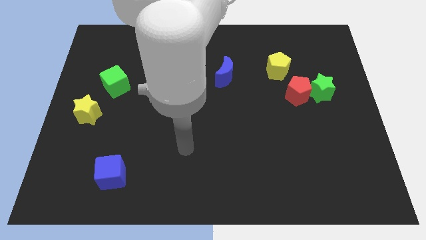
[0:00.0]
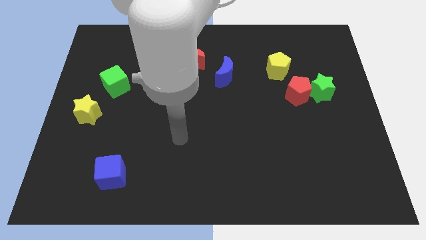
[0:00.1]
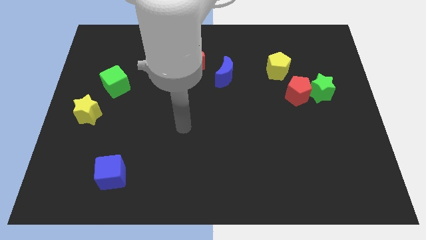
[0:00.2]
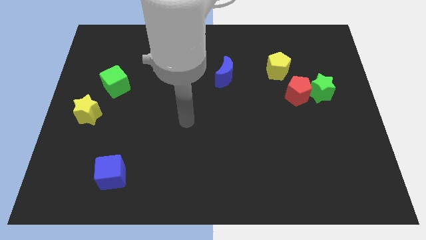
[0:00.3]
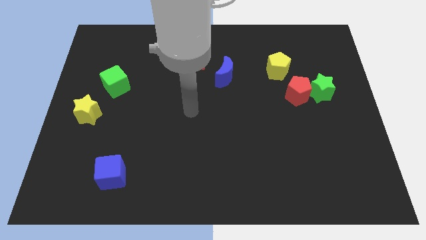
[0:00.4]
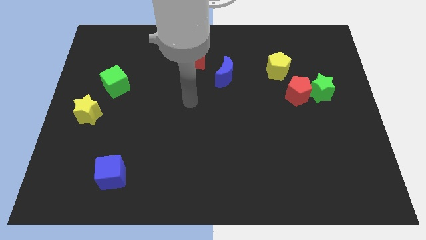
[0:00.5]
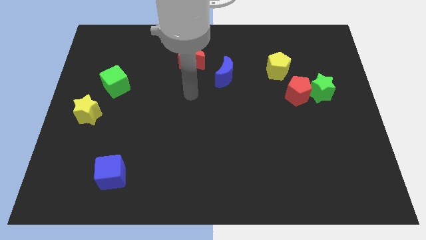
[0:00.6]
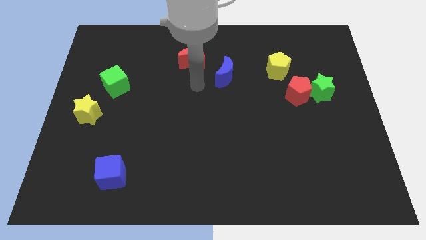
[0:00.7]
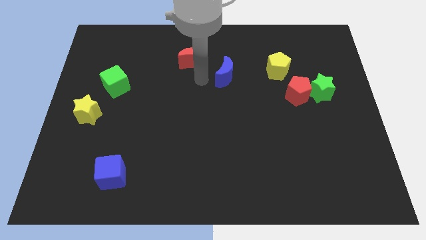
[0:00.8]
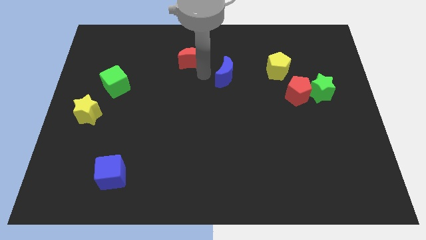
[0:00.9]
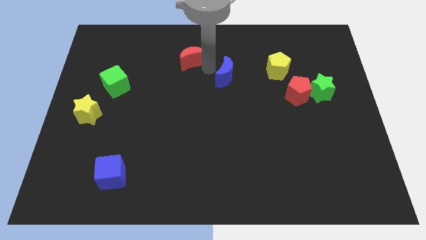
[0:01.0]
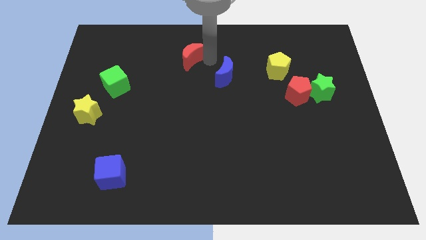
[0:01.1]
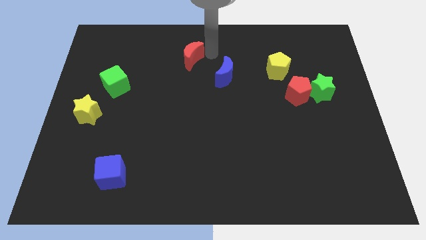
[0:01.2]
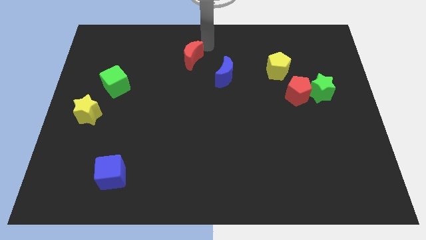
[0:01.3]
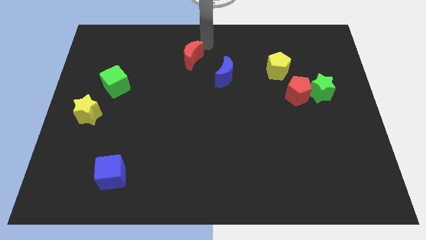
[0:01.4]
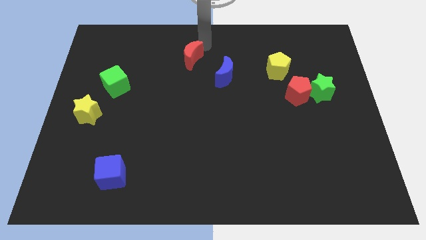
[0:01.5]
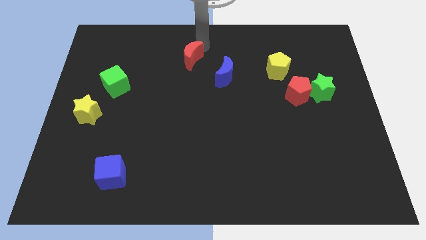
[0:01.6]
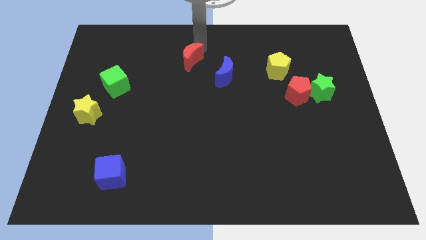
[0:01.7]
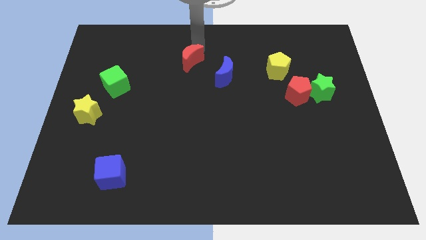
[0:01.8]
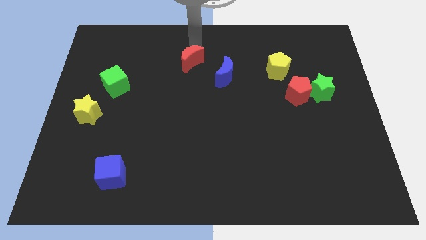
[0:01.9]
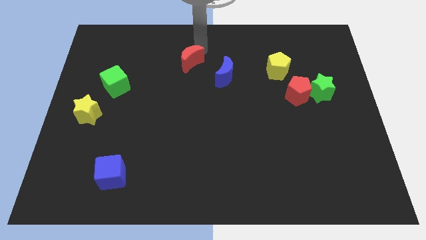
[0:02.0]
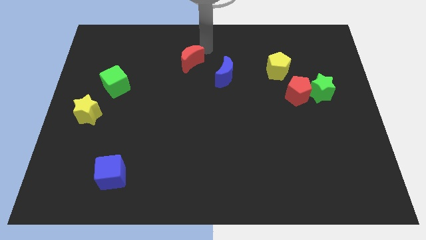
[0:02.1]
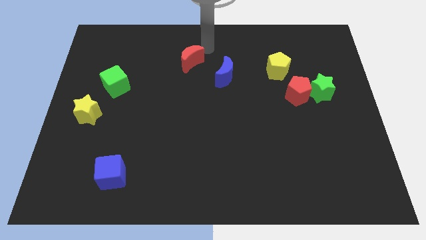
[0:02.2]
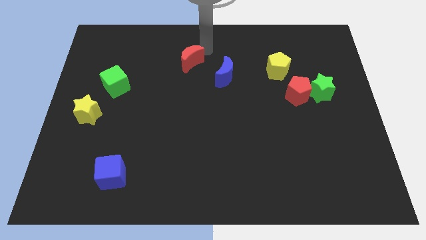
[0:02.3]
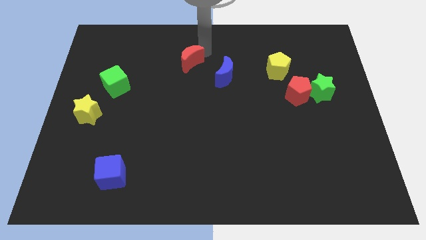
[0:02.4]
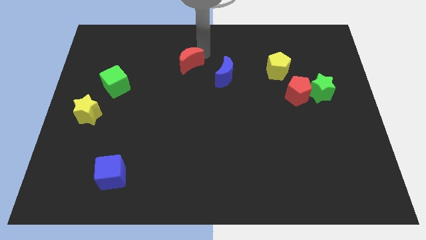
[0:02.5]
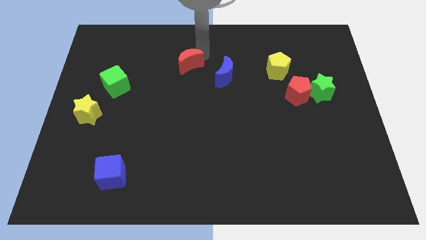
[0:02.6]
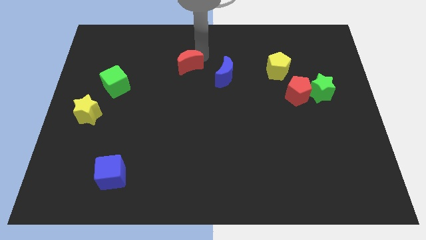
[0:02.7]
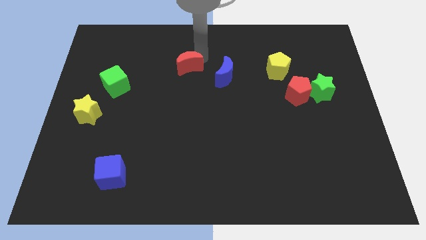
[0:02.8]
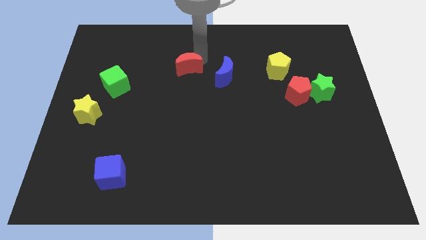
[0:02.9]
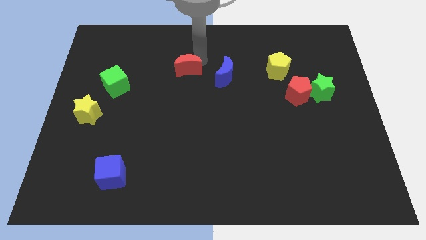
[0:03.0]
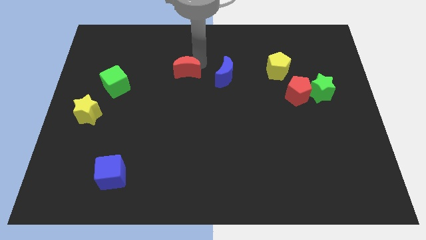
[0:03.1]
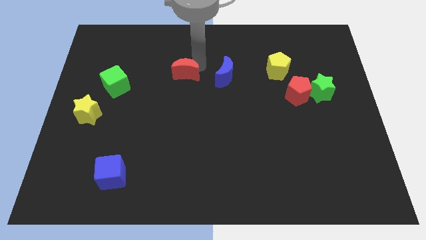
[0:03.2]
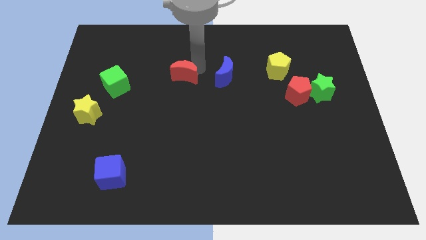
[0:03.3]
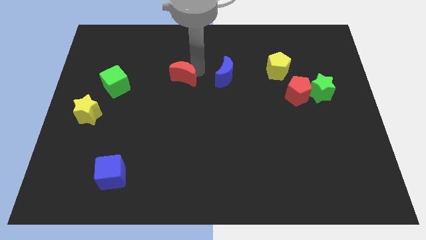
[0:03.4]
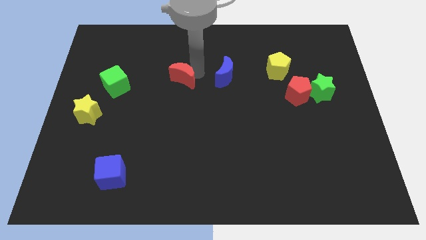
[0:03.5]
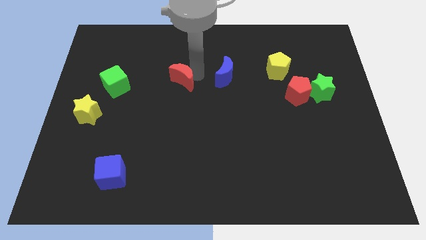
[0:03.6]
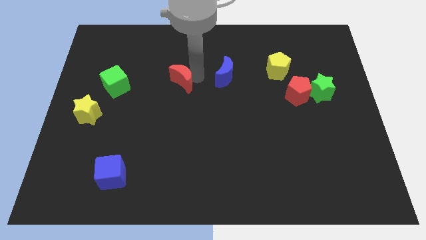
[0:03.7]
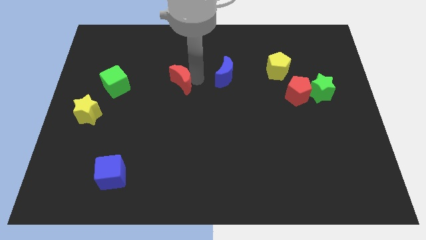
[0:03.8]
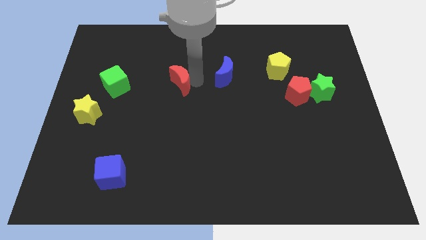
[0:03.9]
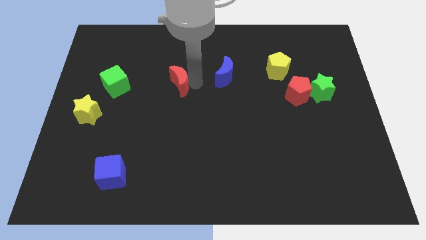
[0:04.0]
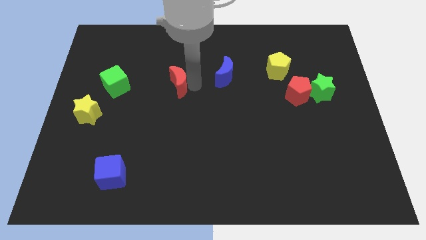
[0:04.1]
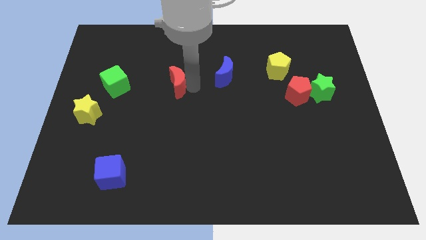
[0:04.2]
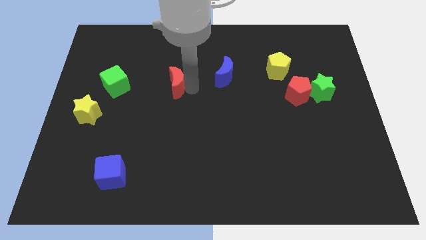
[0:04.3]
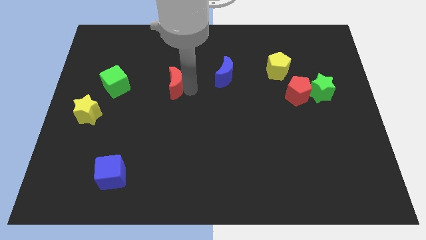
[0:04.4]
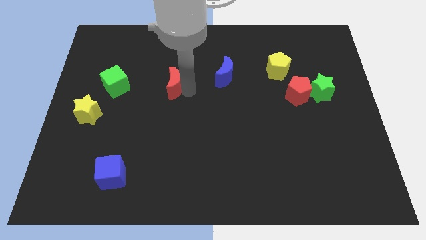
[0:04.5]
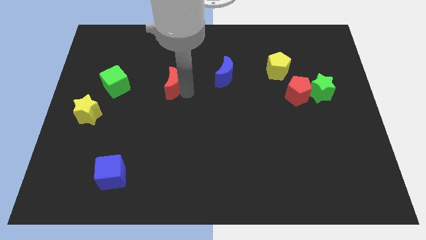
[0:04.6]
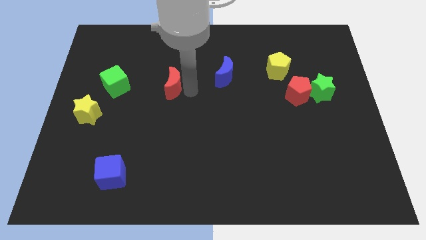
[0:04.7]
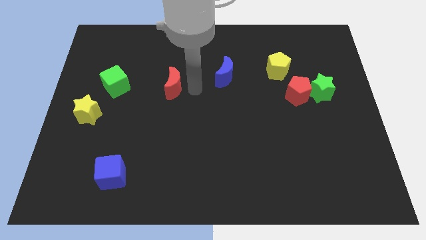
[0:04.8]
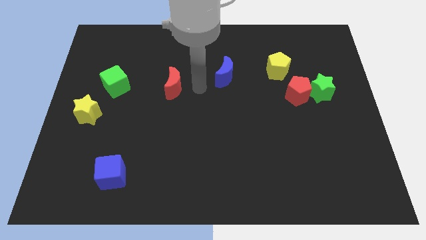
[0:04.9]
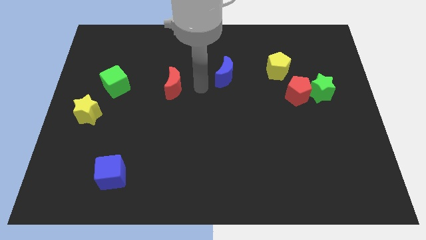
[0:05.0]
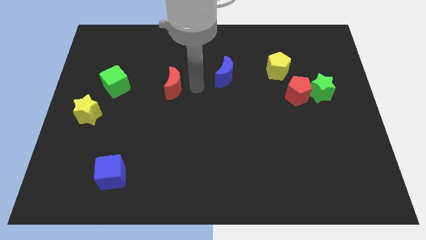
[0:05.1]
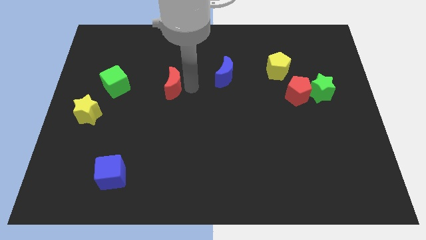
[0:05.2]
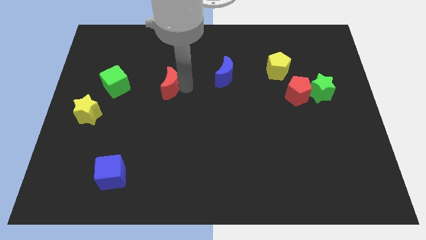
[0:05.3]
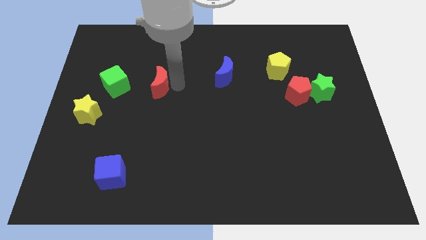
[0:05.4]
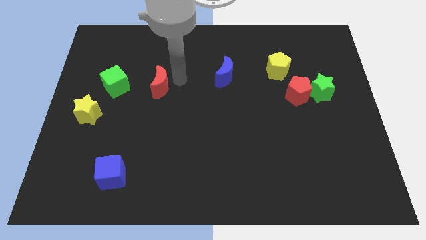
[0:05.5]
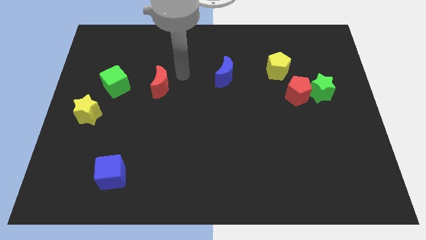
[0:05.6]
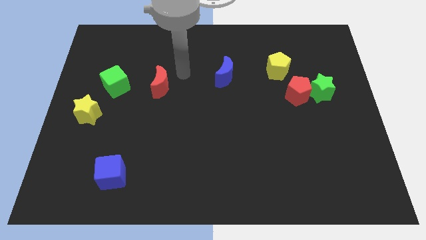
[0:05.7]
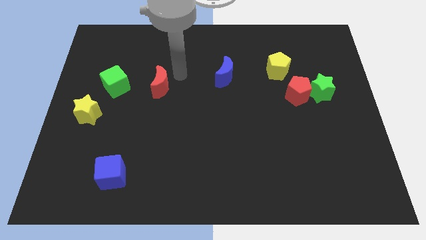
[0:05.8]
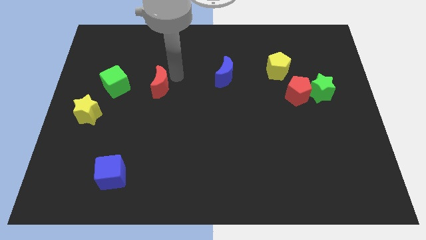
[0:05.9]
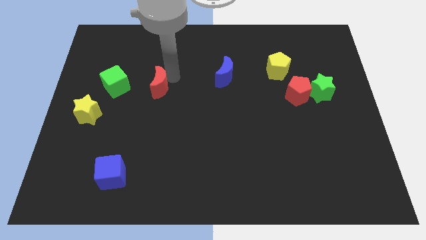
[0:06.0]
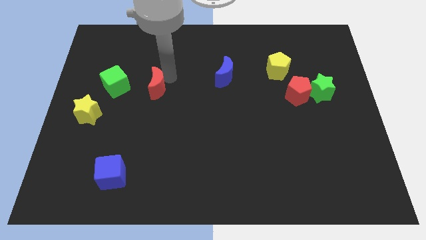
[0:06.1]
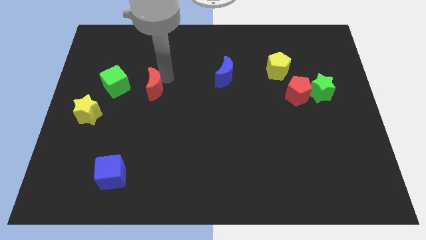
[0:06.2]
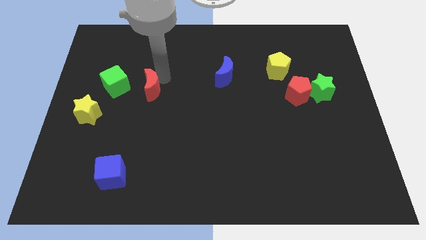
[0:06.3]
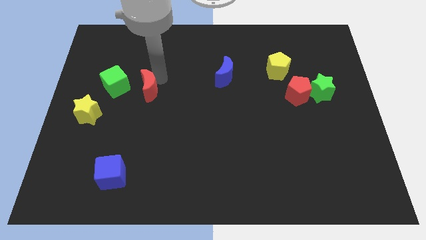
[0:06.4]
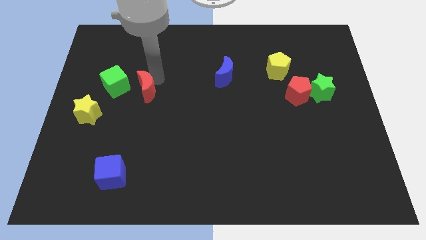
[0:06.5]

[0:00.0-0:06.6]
slide the red moon to the bottom right side of the green cube

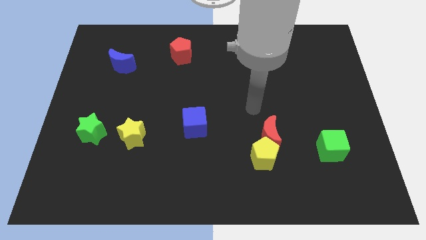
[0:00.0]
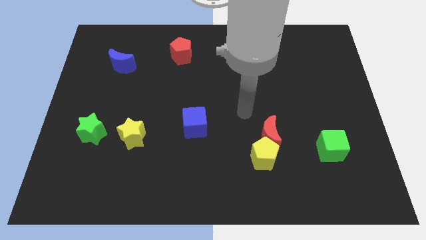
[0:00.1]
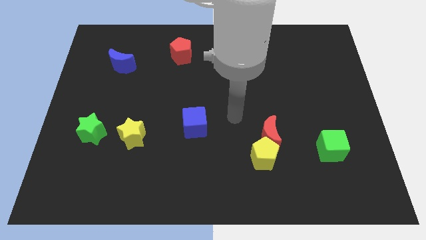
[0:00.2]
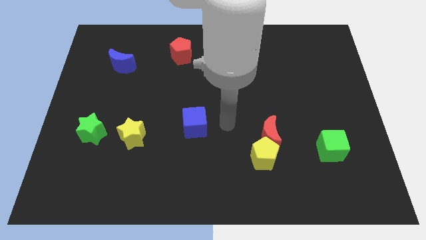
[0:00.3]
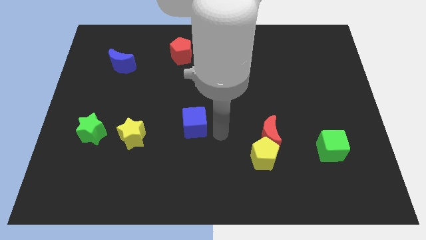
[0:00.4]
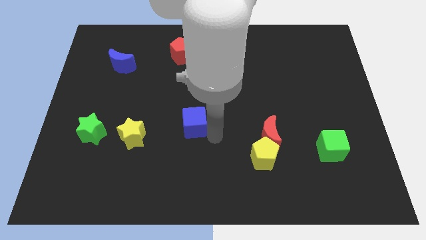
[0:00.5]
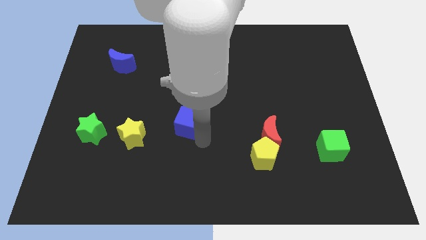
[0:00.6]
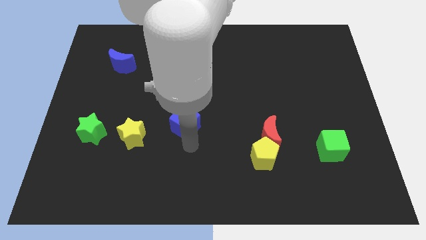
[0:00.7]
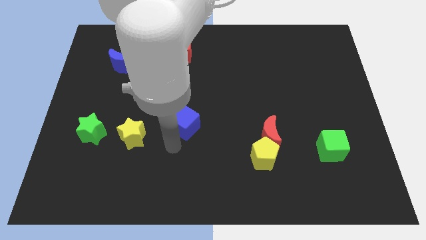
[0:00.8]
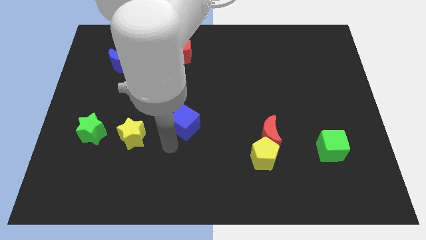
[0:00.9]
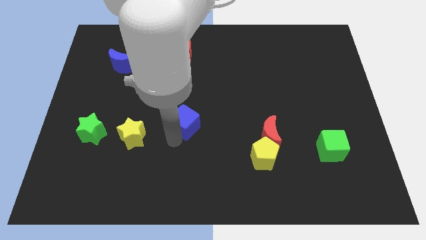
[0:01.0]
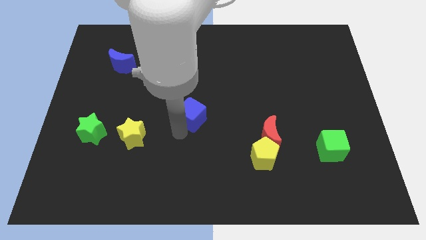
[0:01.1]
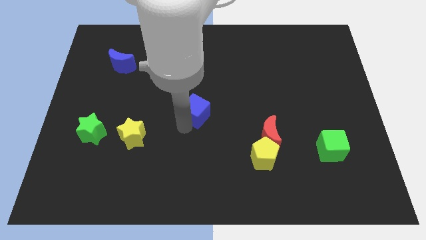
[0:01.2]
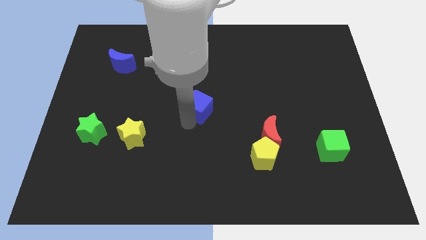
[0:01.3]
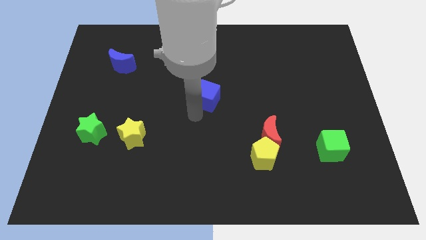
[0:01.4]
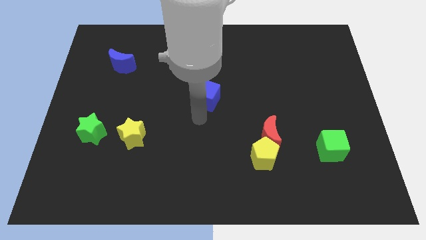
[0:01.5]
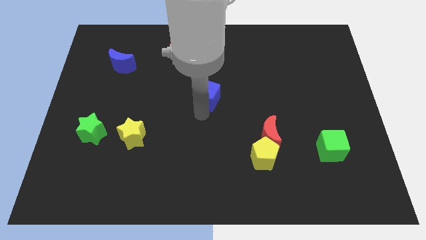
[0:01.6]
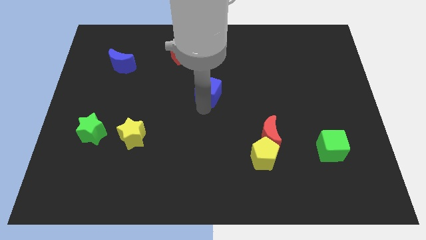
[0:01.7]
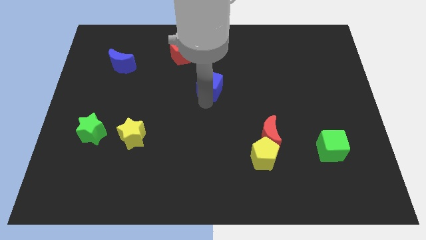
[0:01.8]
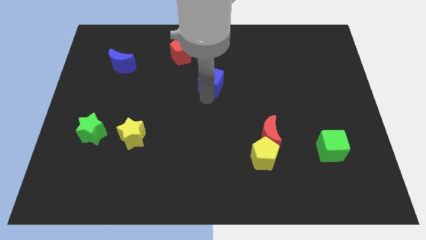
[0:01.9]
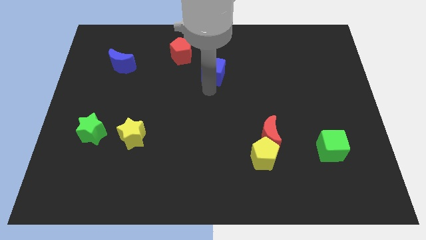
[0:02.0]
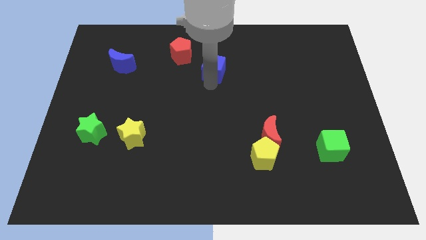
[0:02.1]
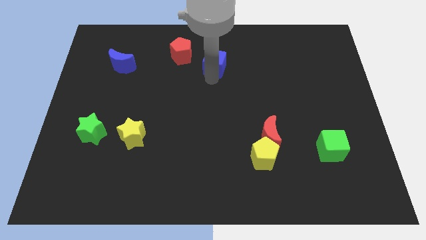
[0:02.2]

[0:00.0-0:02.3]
put the blue cube just right of the red pentagon
